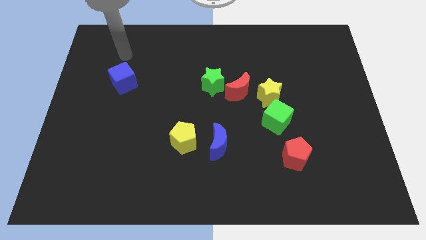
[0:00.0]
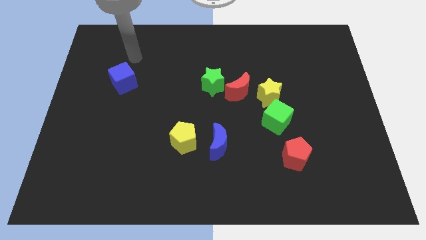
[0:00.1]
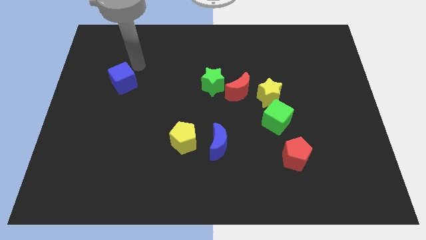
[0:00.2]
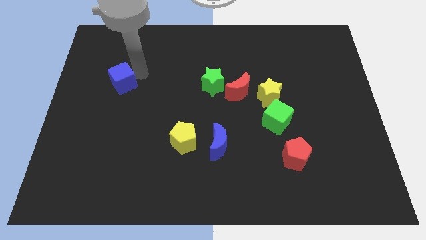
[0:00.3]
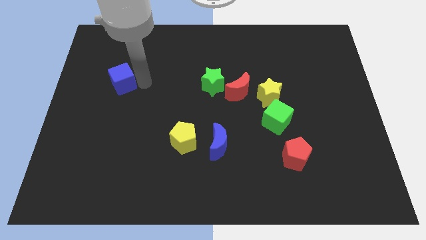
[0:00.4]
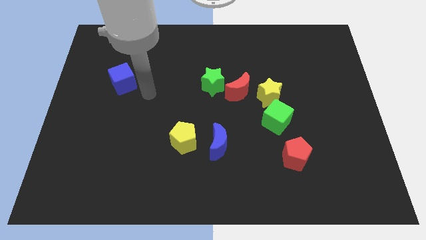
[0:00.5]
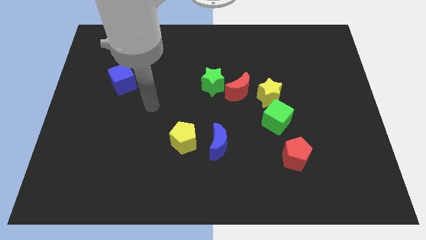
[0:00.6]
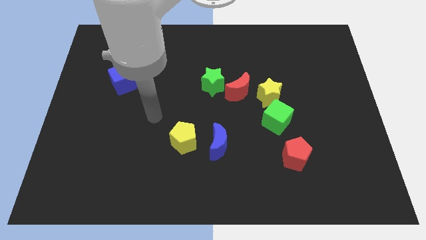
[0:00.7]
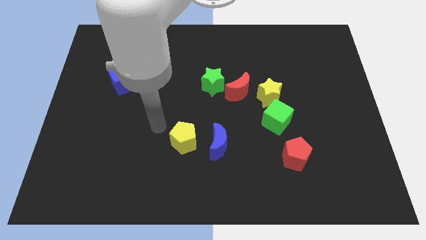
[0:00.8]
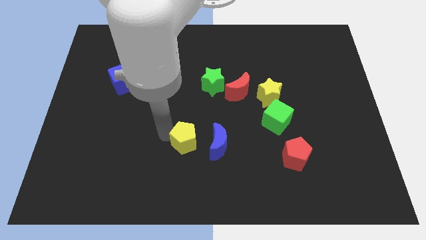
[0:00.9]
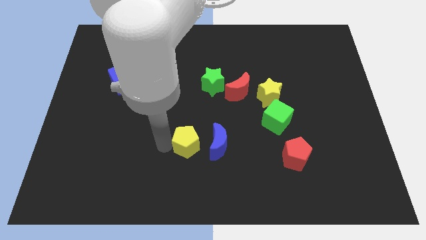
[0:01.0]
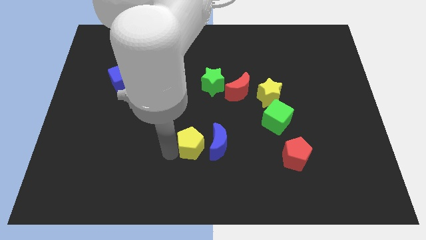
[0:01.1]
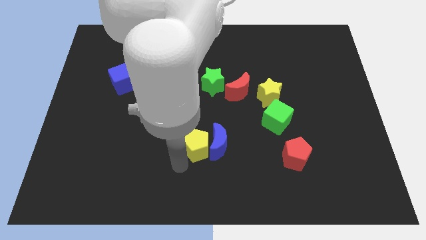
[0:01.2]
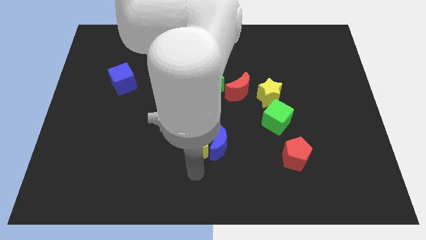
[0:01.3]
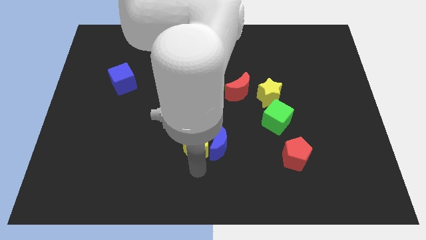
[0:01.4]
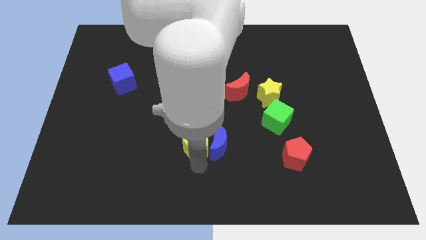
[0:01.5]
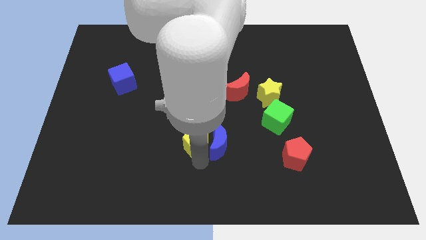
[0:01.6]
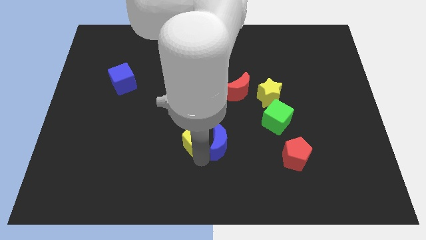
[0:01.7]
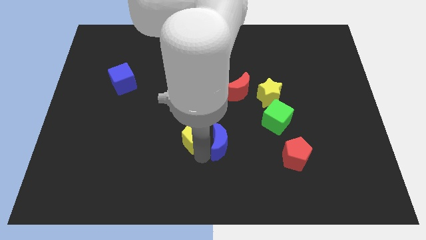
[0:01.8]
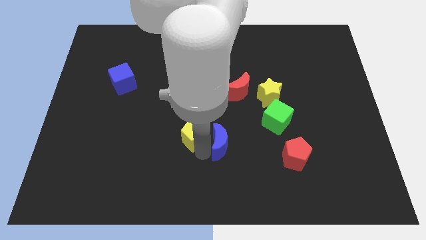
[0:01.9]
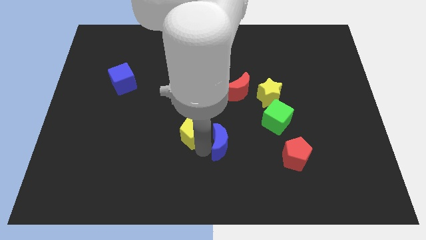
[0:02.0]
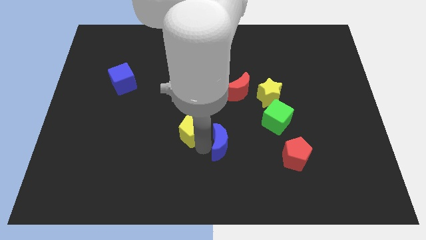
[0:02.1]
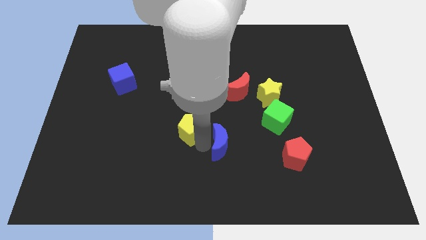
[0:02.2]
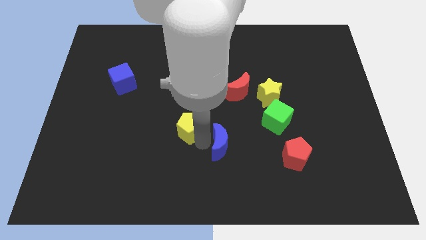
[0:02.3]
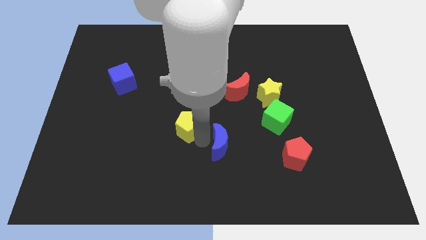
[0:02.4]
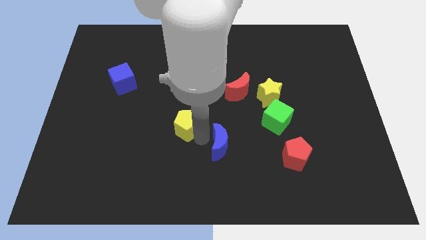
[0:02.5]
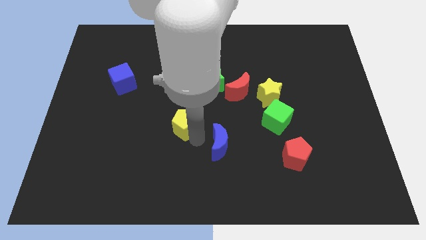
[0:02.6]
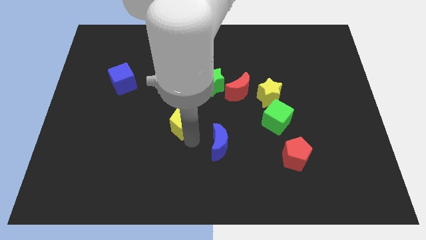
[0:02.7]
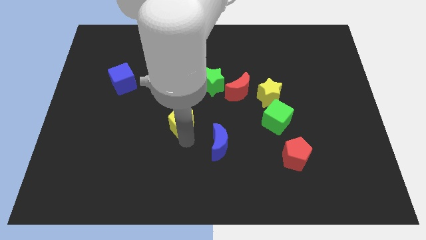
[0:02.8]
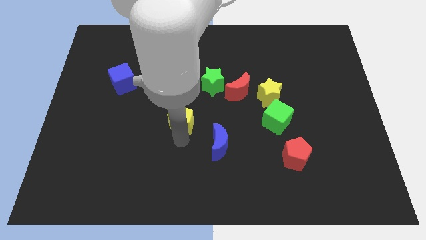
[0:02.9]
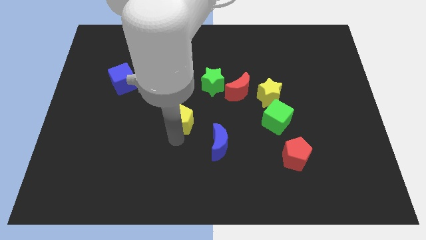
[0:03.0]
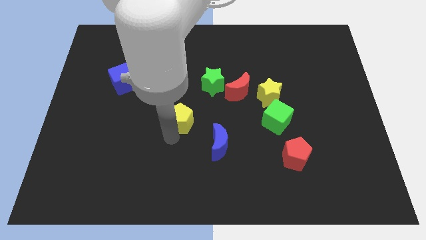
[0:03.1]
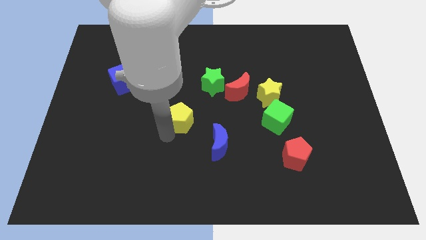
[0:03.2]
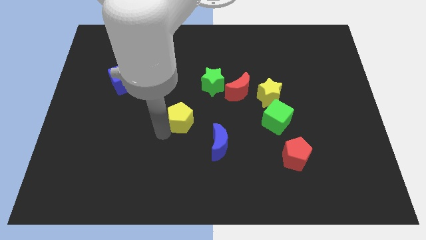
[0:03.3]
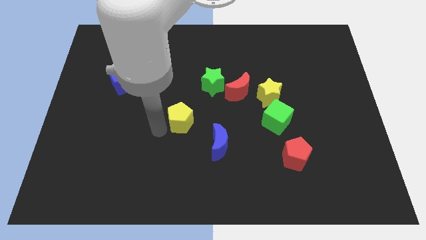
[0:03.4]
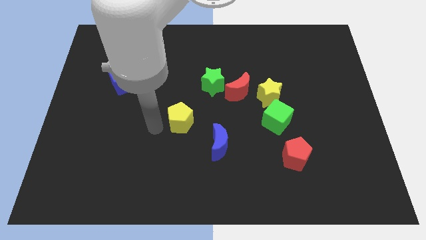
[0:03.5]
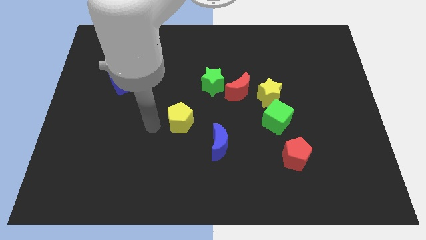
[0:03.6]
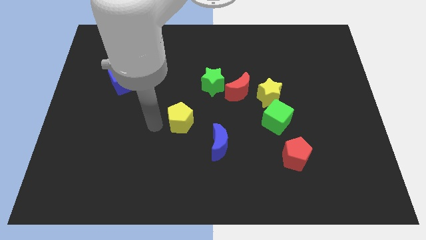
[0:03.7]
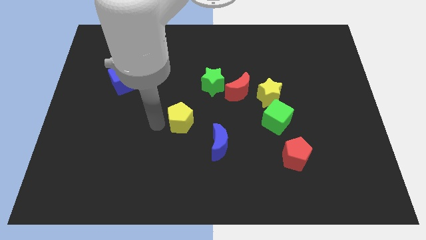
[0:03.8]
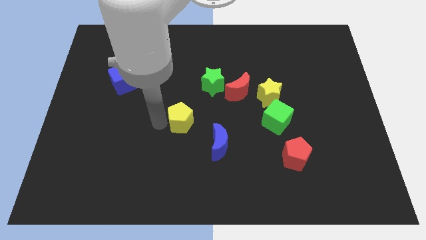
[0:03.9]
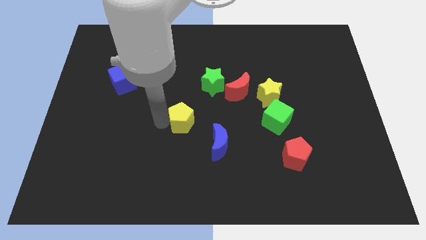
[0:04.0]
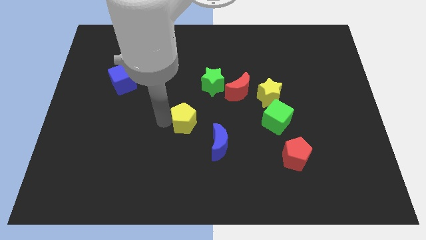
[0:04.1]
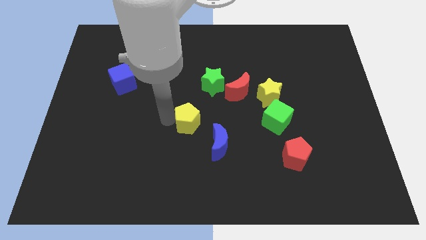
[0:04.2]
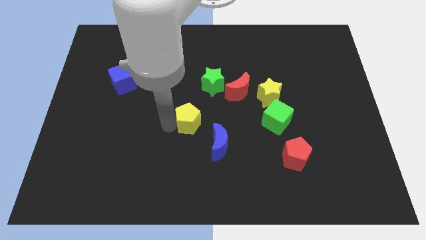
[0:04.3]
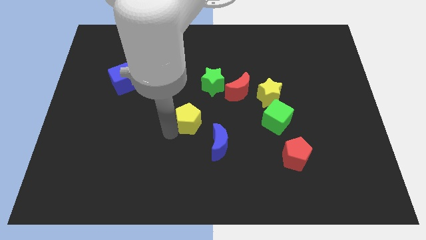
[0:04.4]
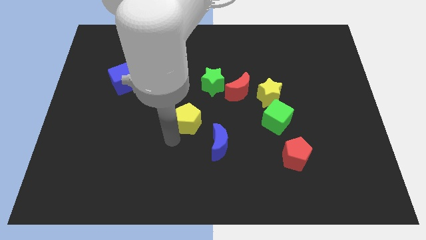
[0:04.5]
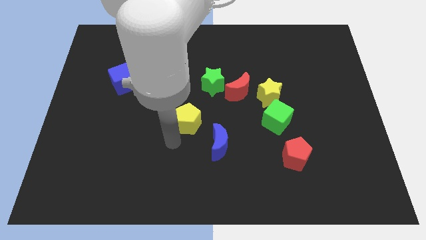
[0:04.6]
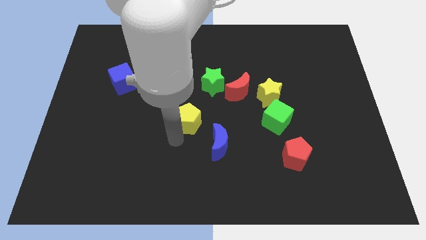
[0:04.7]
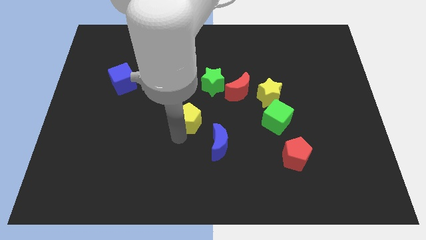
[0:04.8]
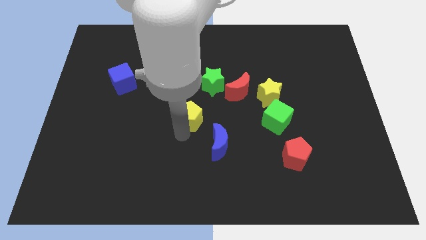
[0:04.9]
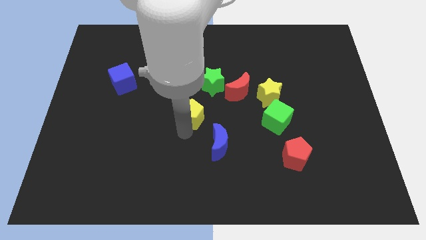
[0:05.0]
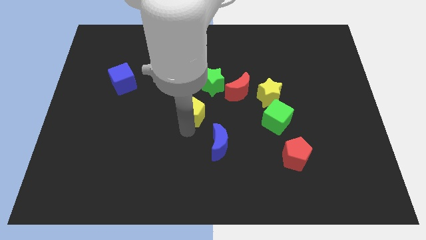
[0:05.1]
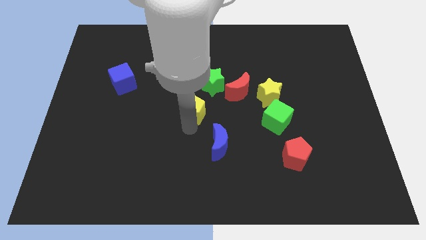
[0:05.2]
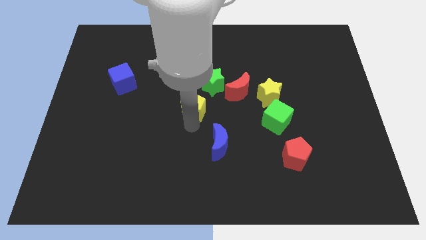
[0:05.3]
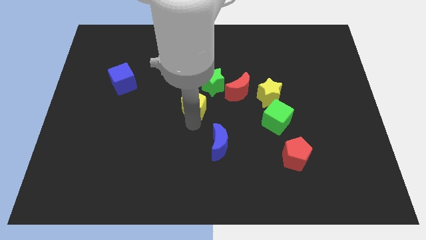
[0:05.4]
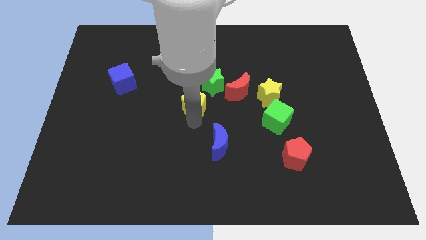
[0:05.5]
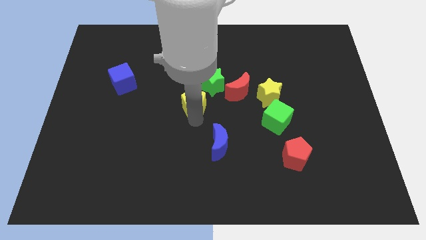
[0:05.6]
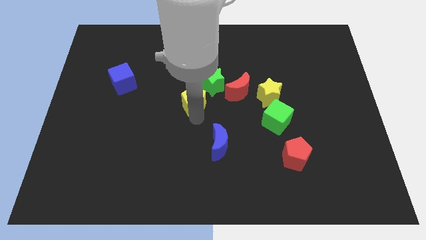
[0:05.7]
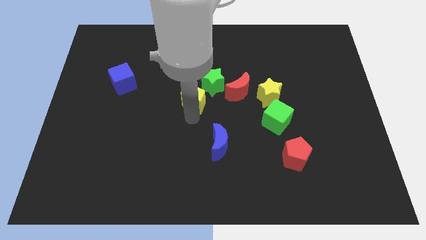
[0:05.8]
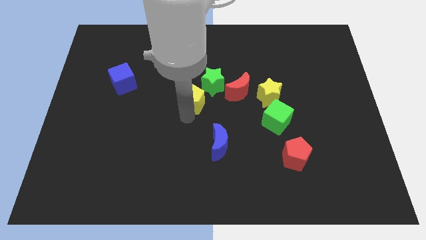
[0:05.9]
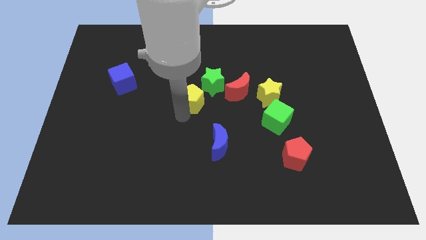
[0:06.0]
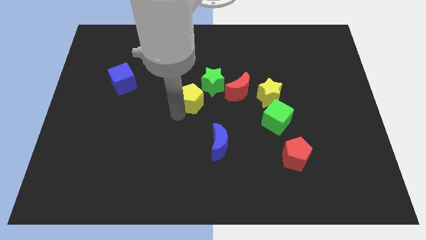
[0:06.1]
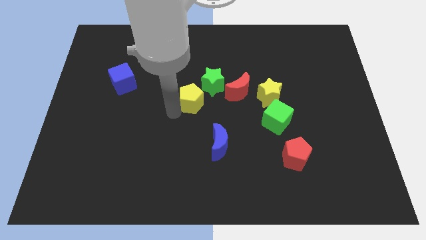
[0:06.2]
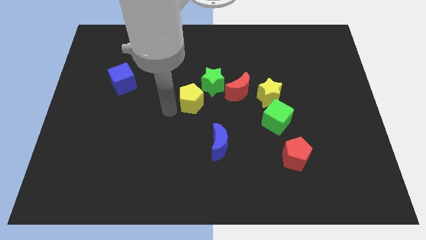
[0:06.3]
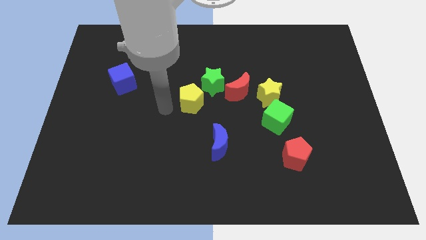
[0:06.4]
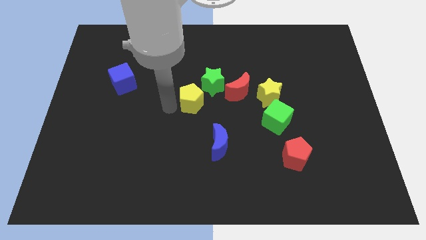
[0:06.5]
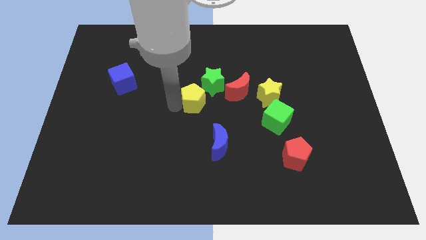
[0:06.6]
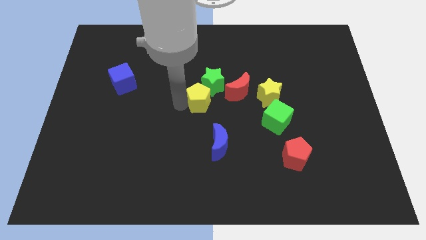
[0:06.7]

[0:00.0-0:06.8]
move the yellow pentagon to the green star

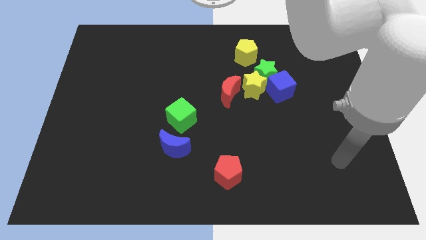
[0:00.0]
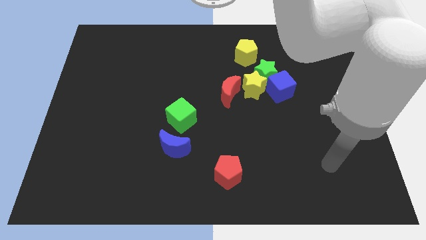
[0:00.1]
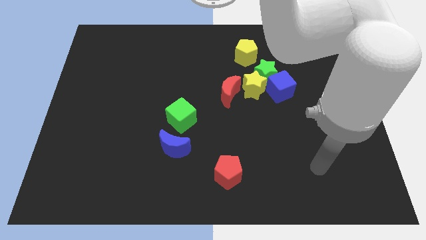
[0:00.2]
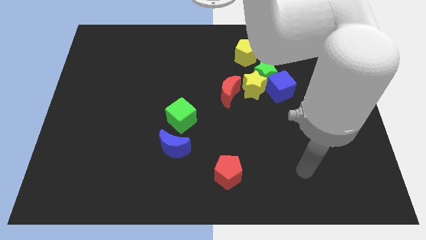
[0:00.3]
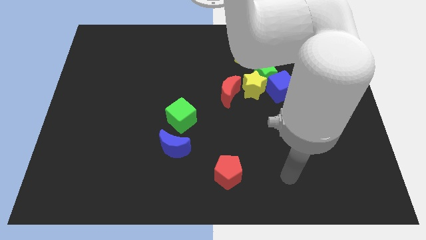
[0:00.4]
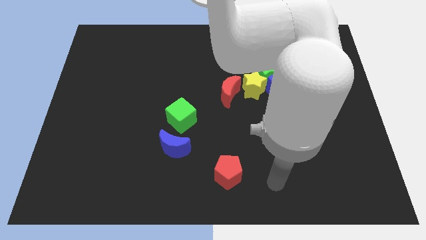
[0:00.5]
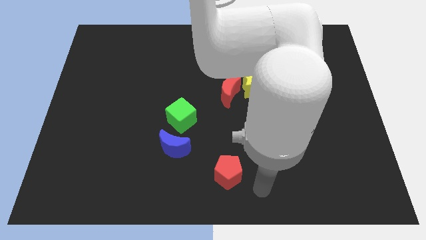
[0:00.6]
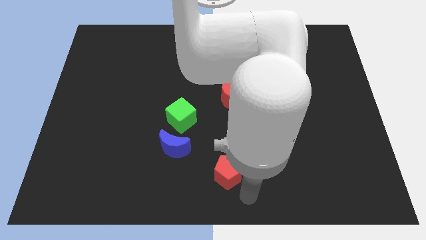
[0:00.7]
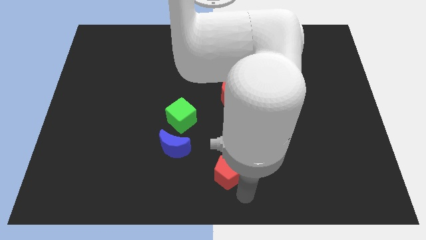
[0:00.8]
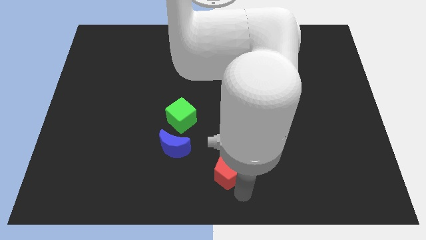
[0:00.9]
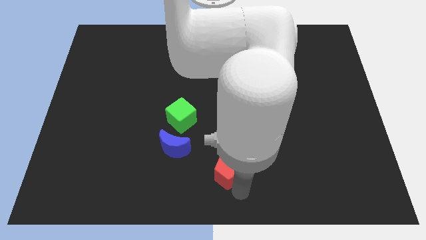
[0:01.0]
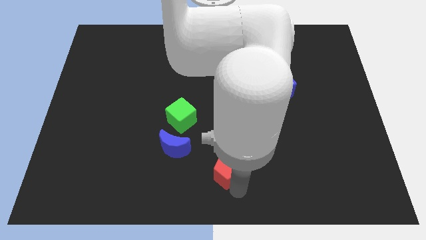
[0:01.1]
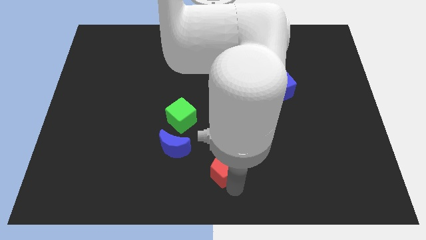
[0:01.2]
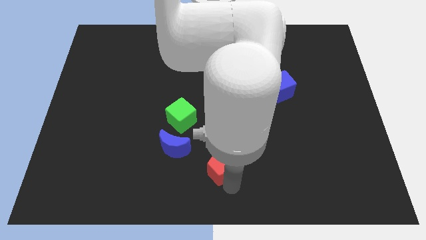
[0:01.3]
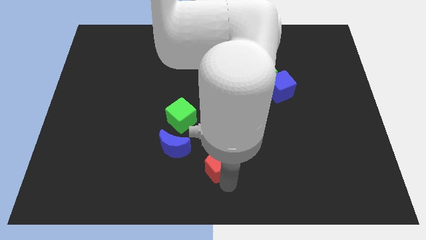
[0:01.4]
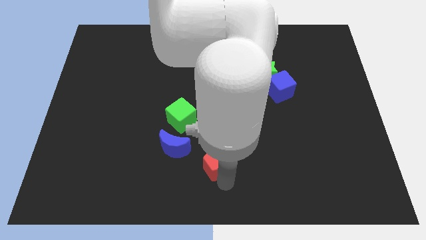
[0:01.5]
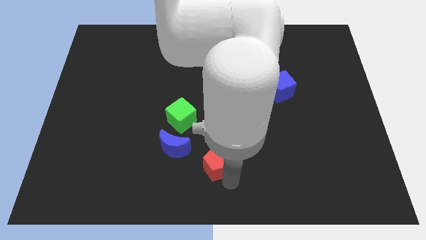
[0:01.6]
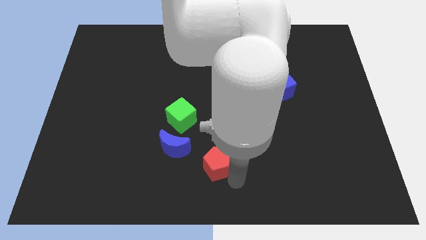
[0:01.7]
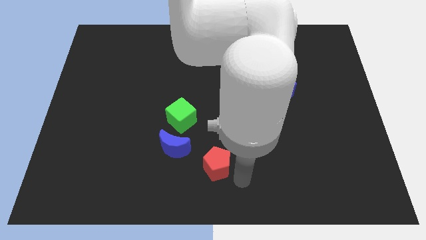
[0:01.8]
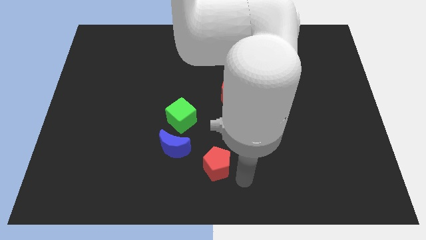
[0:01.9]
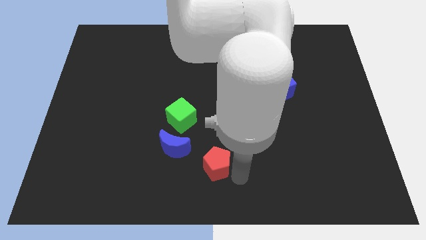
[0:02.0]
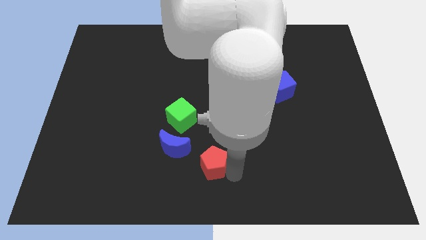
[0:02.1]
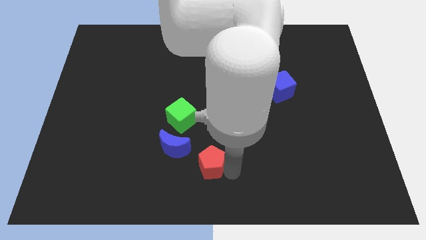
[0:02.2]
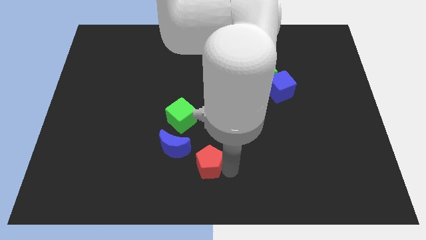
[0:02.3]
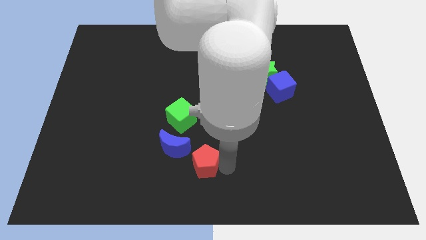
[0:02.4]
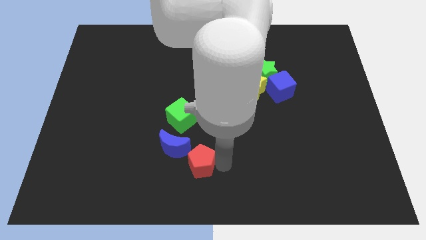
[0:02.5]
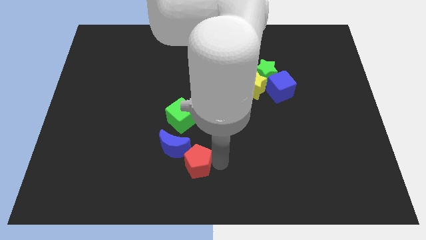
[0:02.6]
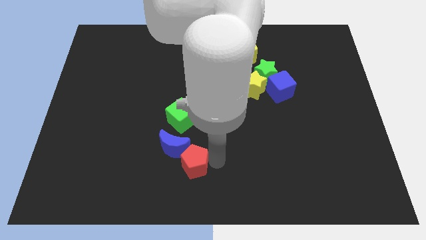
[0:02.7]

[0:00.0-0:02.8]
slide the red pentagon next to the blue moon
